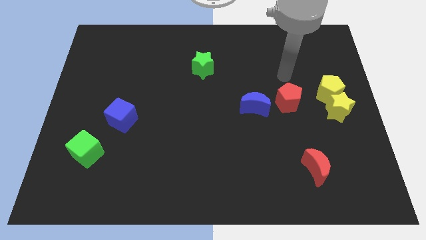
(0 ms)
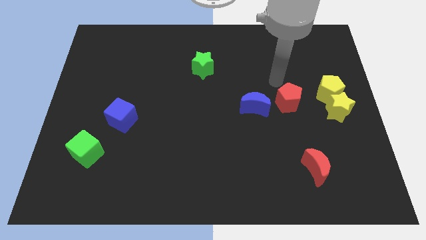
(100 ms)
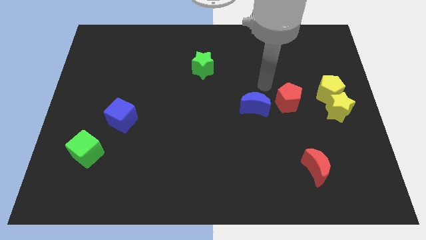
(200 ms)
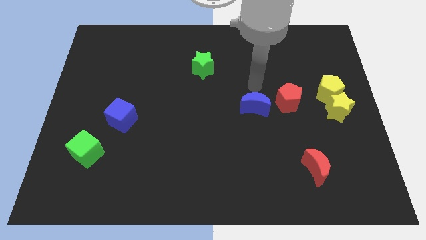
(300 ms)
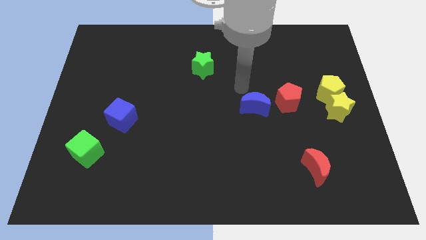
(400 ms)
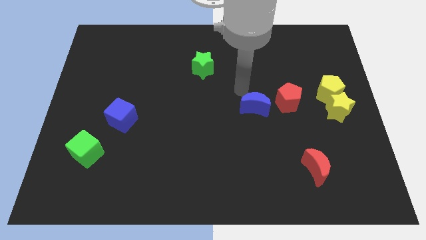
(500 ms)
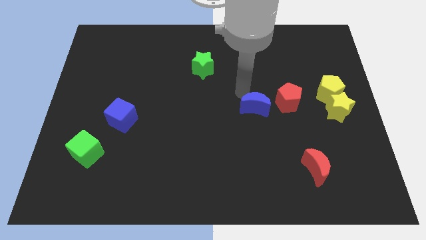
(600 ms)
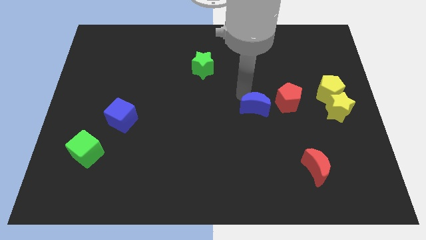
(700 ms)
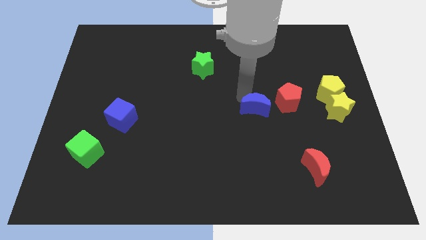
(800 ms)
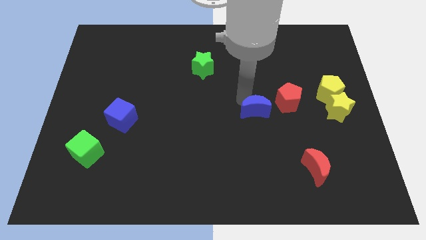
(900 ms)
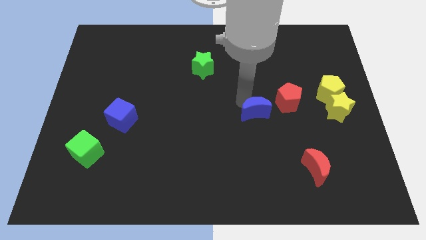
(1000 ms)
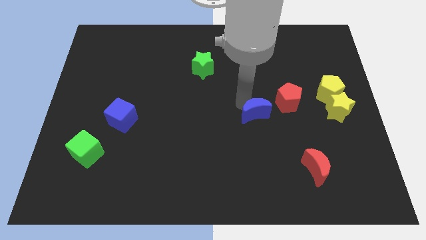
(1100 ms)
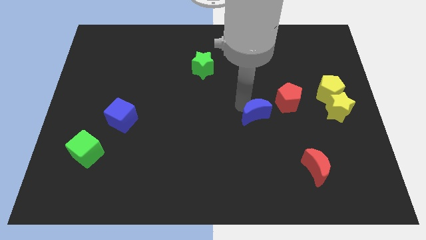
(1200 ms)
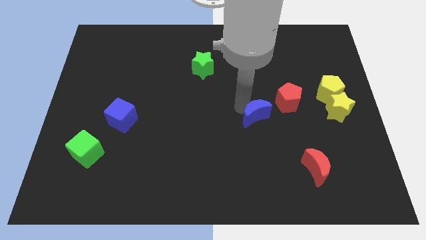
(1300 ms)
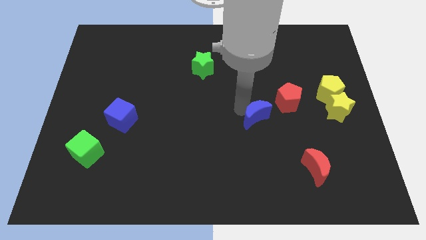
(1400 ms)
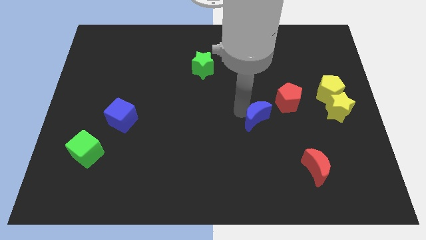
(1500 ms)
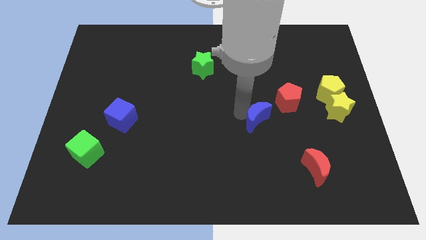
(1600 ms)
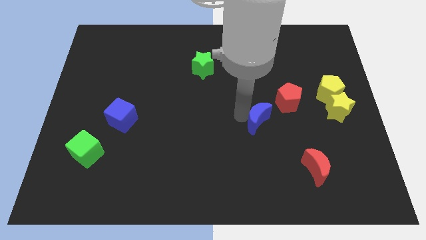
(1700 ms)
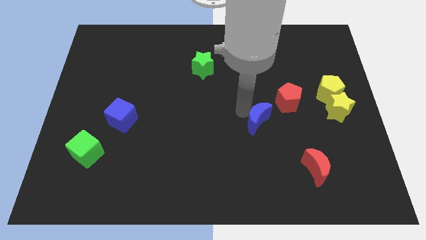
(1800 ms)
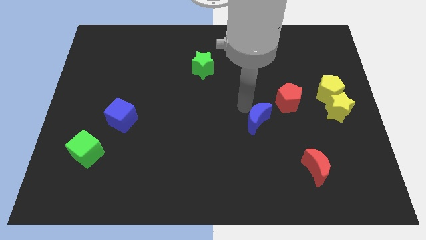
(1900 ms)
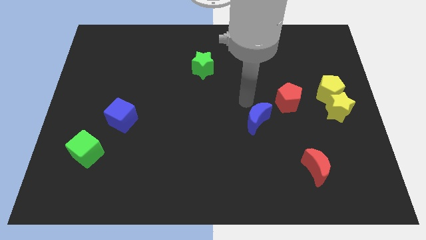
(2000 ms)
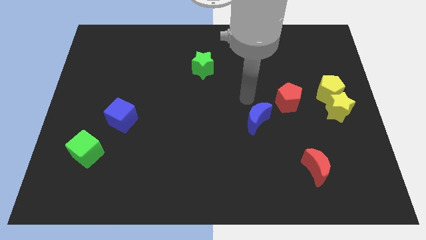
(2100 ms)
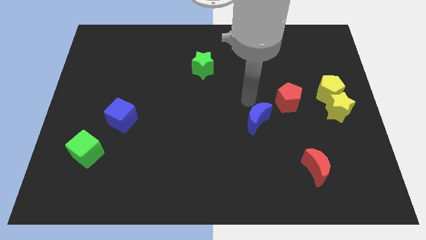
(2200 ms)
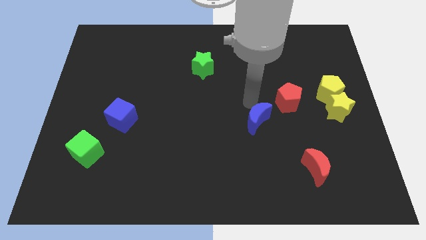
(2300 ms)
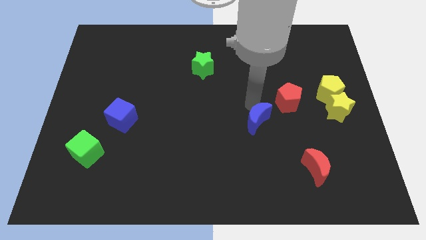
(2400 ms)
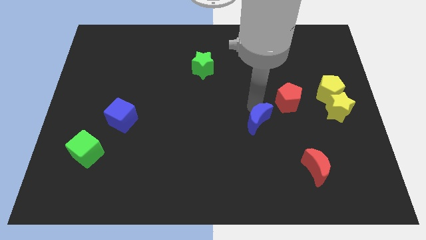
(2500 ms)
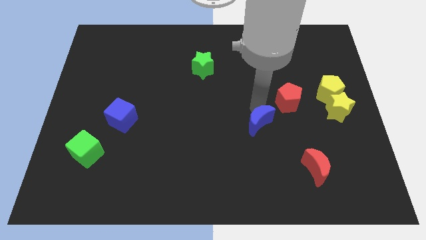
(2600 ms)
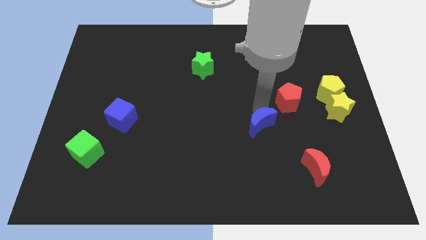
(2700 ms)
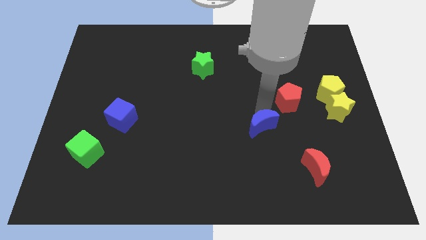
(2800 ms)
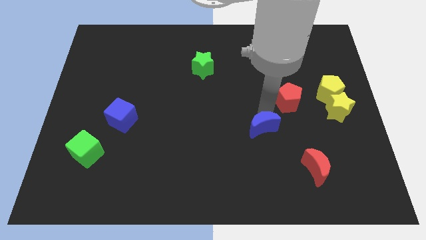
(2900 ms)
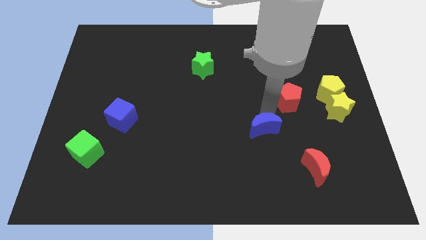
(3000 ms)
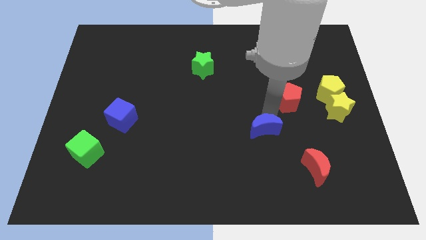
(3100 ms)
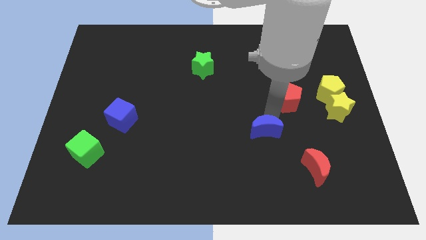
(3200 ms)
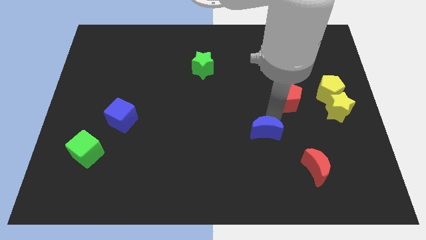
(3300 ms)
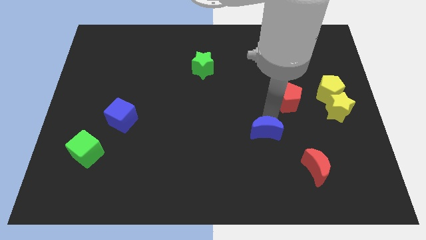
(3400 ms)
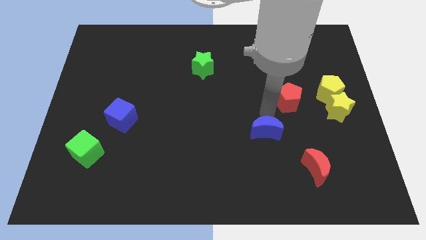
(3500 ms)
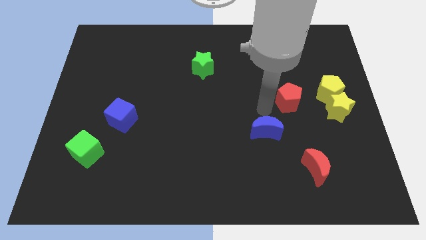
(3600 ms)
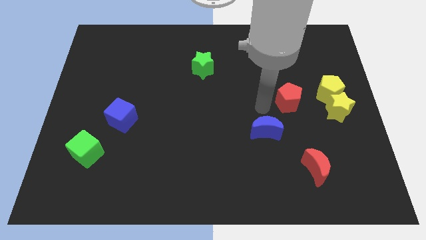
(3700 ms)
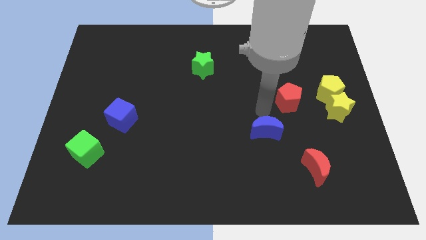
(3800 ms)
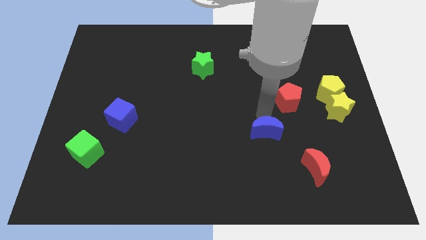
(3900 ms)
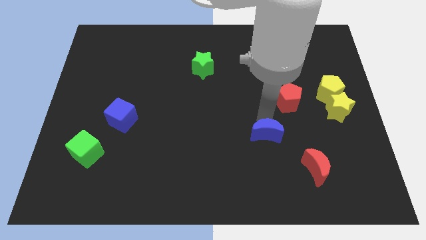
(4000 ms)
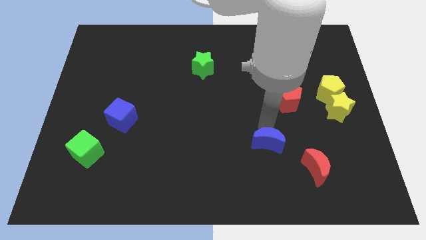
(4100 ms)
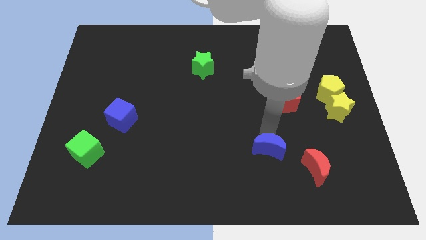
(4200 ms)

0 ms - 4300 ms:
push the blue moon to the left of the red moon

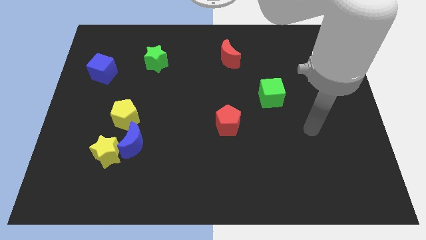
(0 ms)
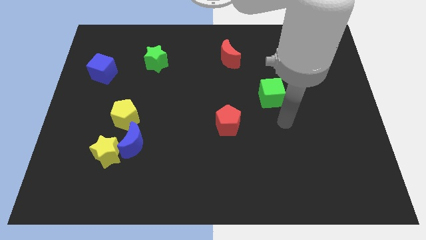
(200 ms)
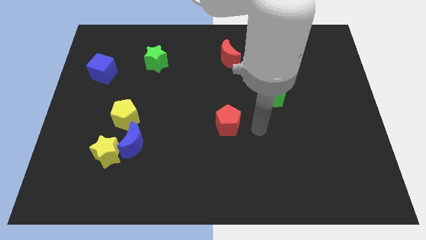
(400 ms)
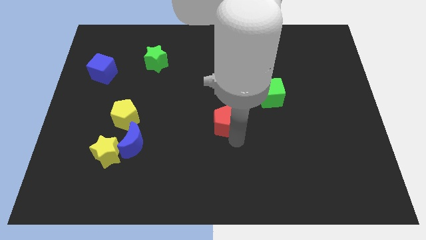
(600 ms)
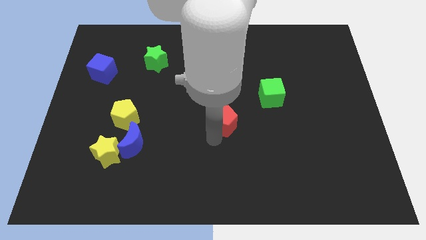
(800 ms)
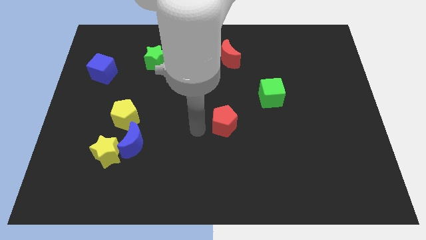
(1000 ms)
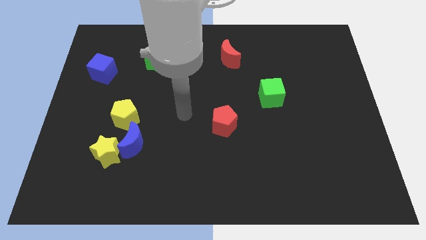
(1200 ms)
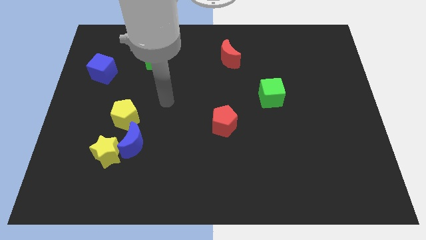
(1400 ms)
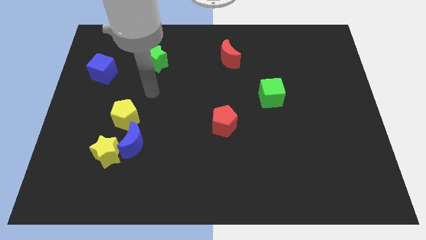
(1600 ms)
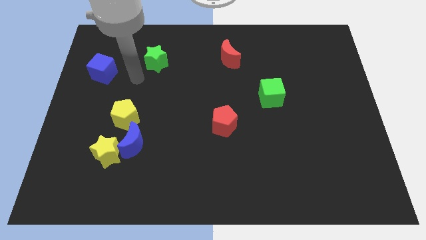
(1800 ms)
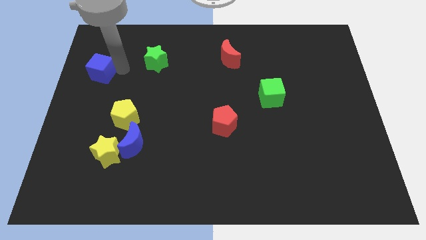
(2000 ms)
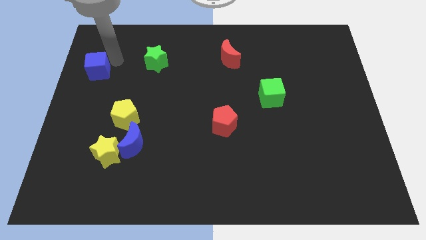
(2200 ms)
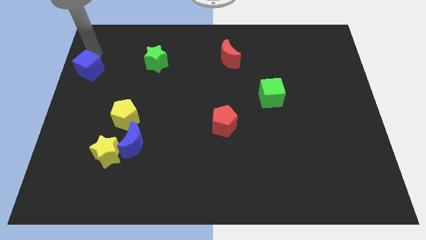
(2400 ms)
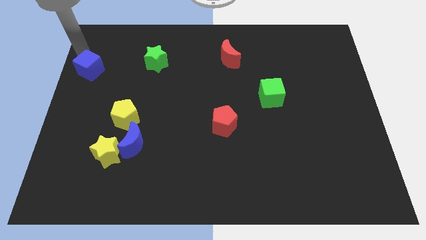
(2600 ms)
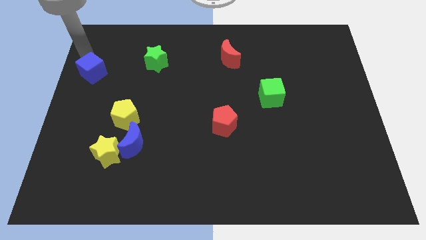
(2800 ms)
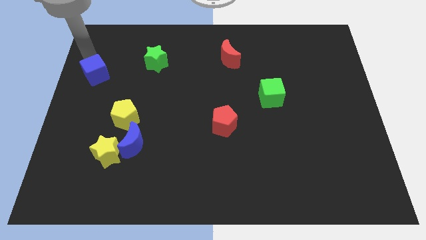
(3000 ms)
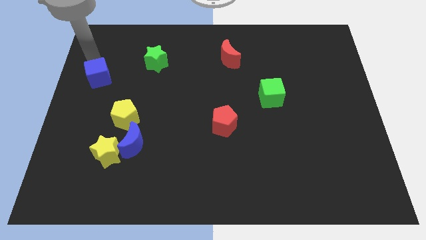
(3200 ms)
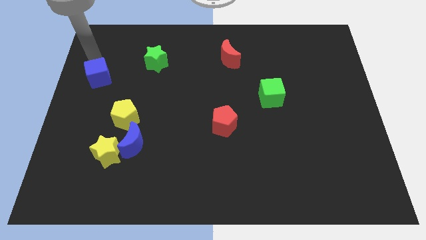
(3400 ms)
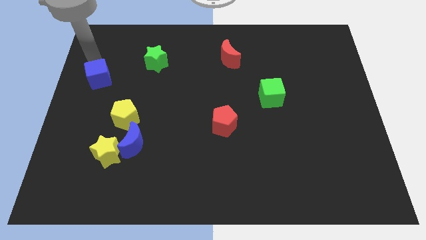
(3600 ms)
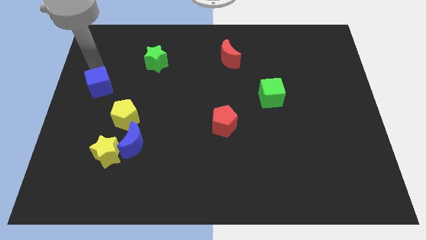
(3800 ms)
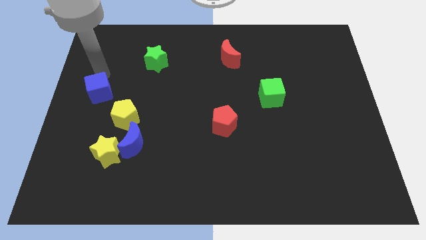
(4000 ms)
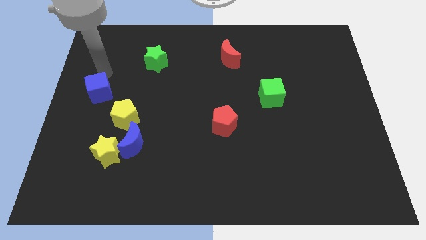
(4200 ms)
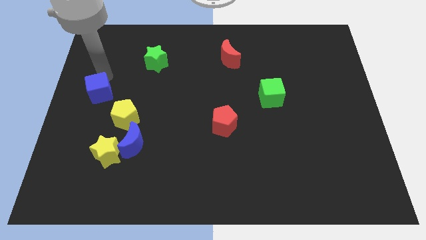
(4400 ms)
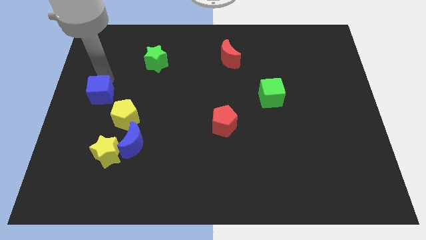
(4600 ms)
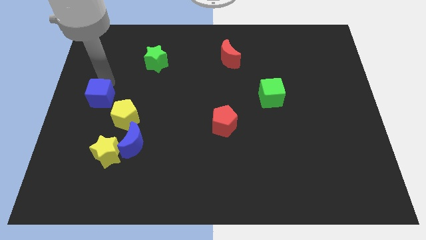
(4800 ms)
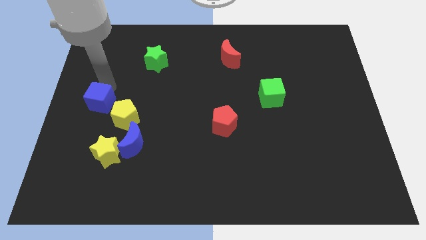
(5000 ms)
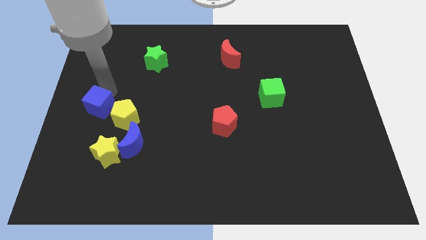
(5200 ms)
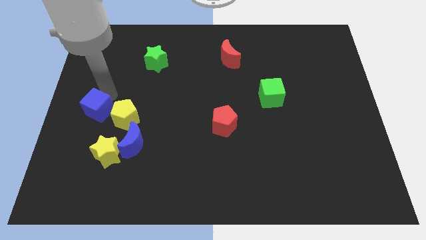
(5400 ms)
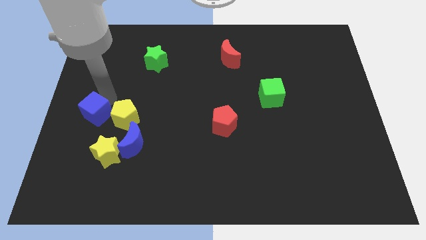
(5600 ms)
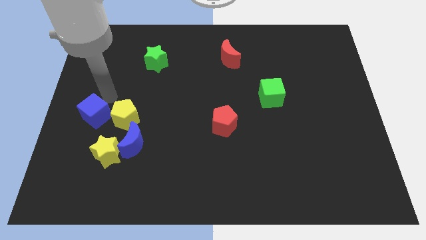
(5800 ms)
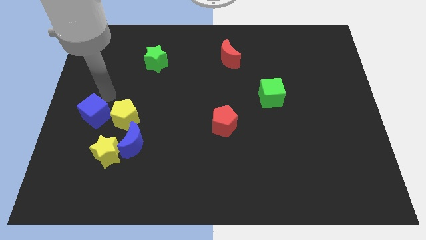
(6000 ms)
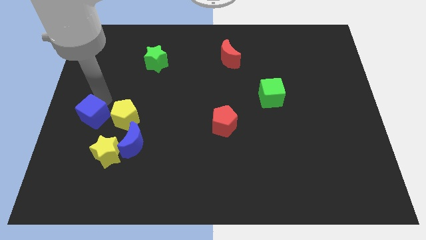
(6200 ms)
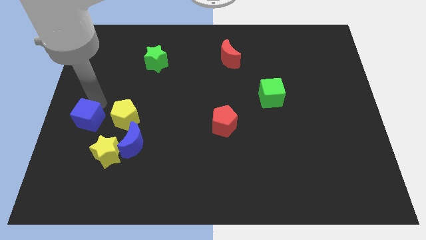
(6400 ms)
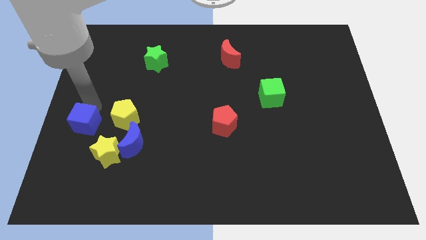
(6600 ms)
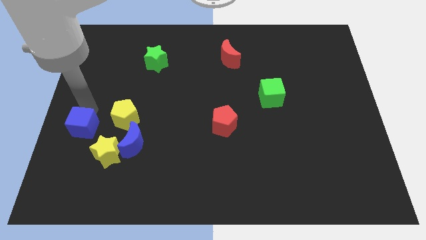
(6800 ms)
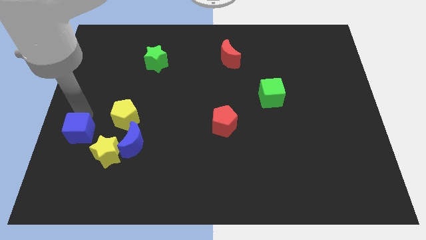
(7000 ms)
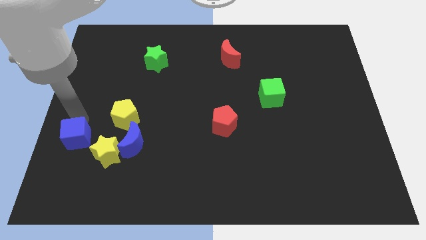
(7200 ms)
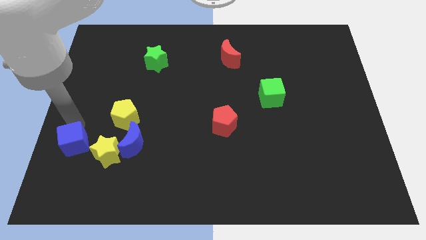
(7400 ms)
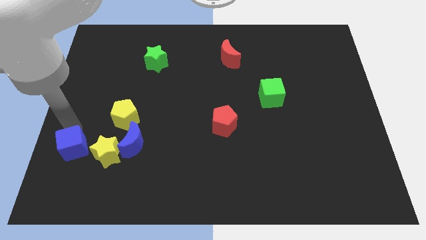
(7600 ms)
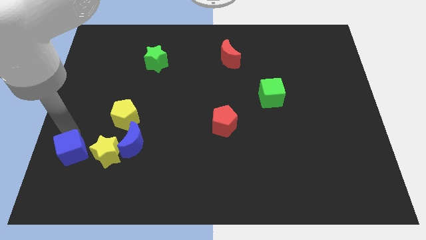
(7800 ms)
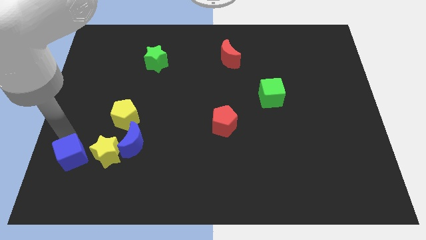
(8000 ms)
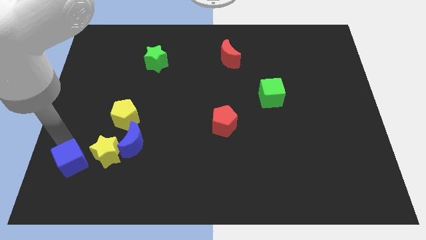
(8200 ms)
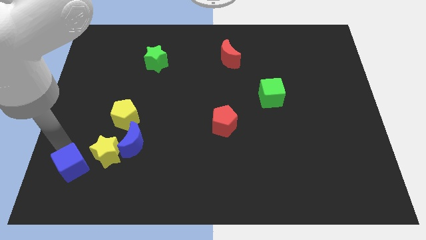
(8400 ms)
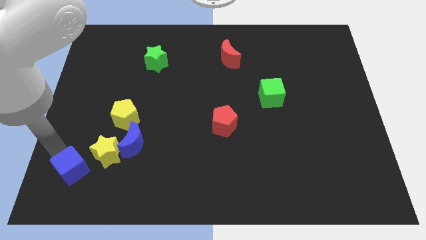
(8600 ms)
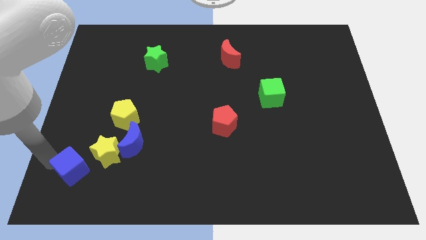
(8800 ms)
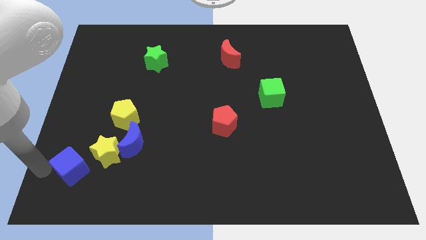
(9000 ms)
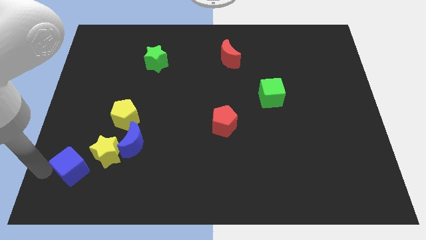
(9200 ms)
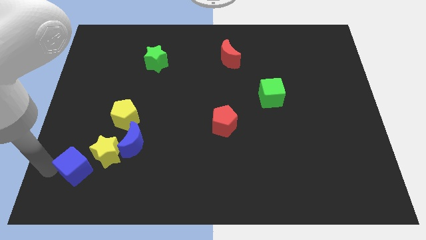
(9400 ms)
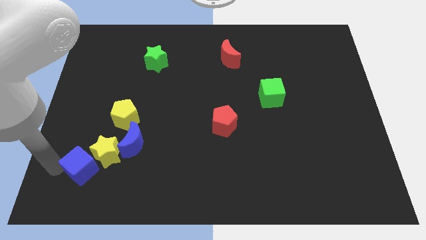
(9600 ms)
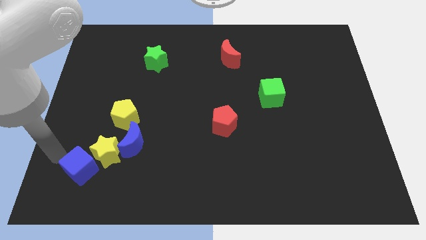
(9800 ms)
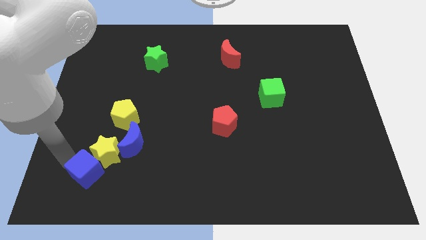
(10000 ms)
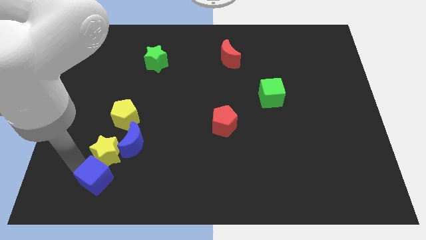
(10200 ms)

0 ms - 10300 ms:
push the blue cube diagonally down and to the right of the yellow star
